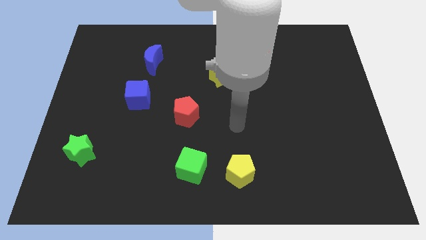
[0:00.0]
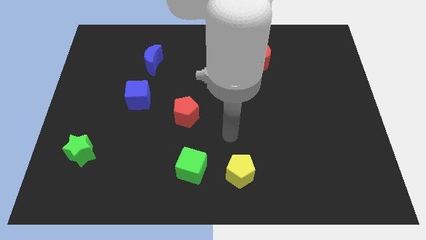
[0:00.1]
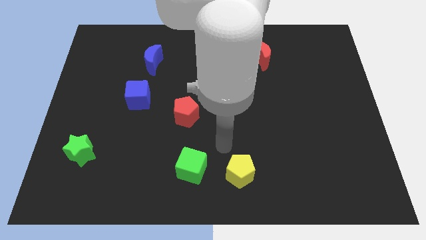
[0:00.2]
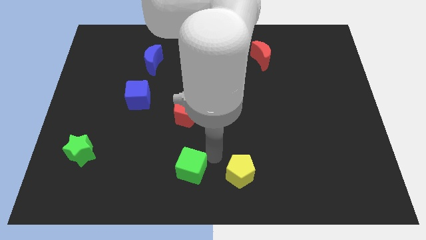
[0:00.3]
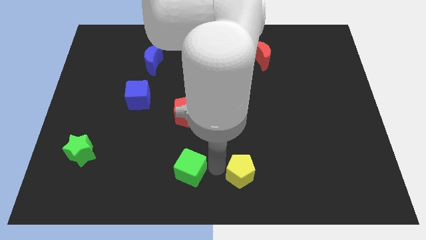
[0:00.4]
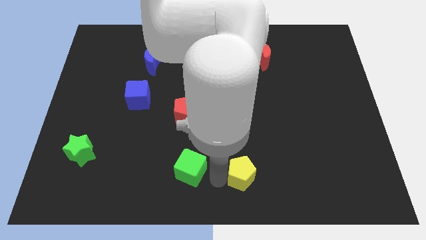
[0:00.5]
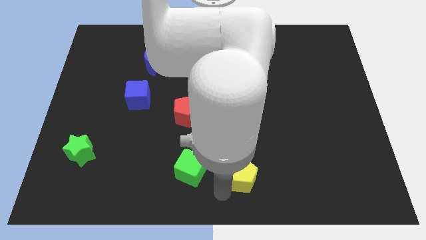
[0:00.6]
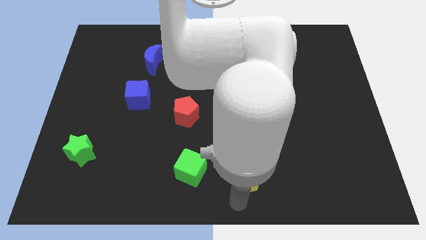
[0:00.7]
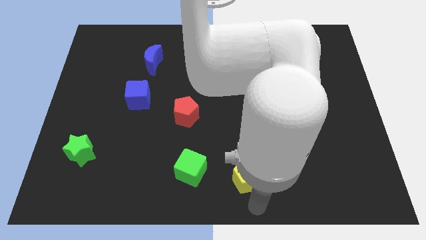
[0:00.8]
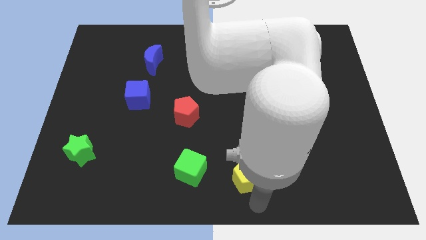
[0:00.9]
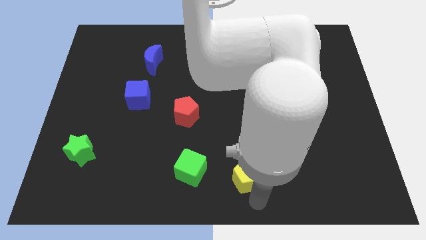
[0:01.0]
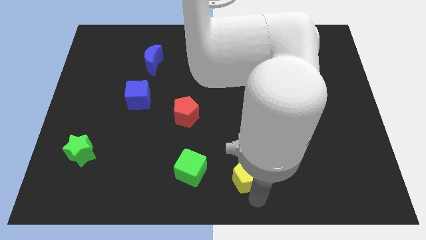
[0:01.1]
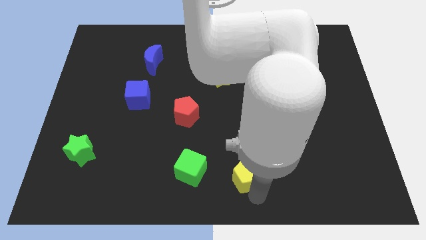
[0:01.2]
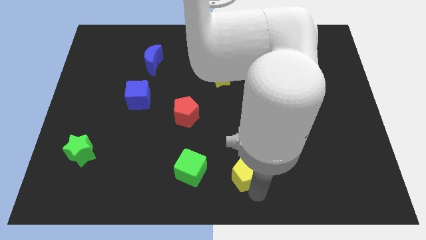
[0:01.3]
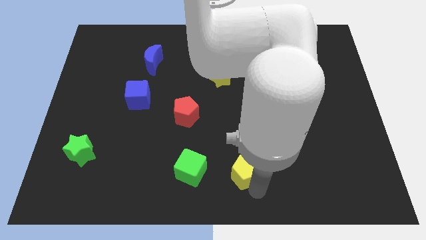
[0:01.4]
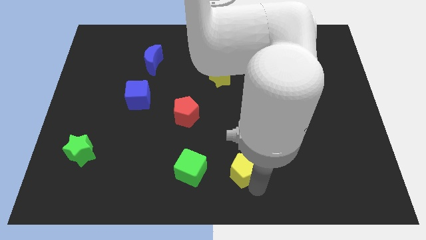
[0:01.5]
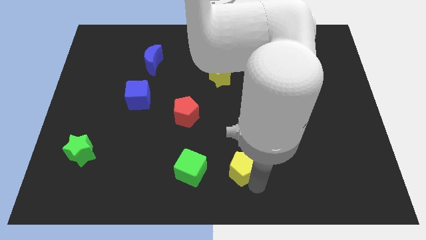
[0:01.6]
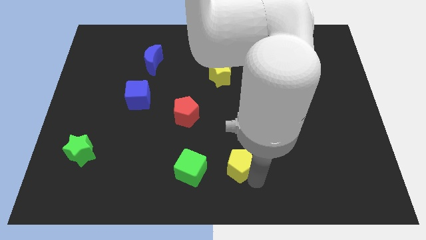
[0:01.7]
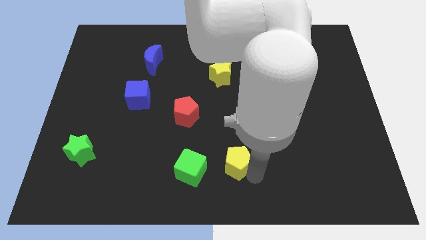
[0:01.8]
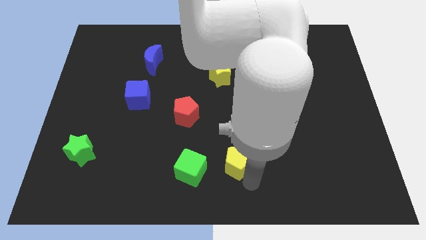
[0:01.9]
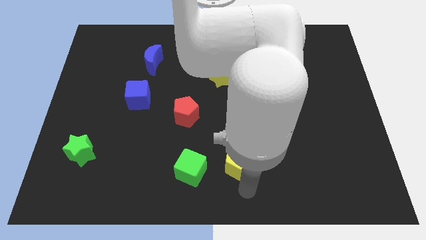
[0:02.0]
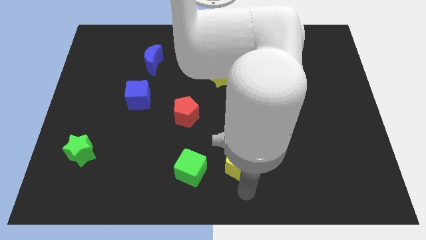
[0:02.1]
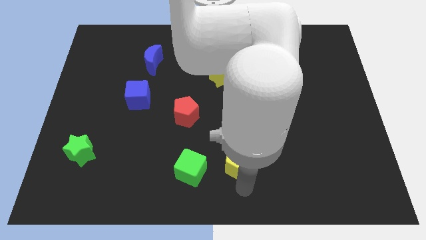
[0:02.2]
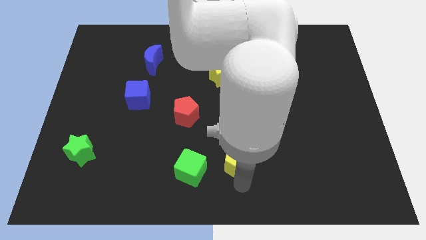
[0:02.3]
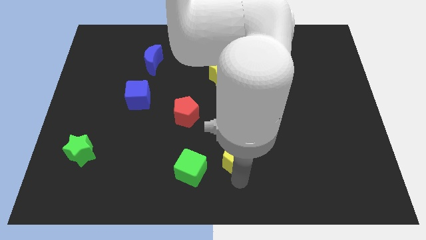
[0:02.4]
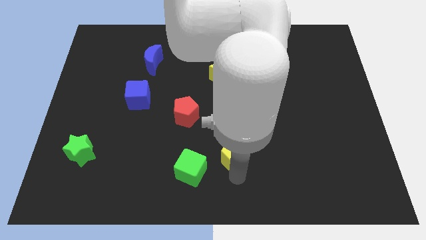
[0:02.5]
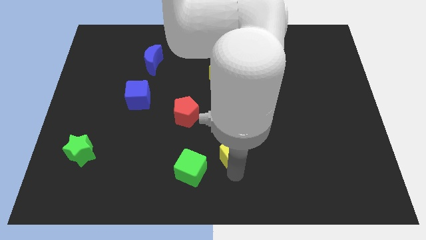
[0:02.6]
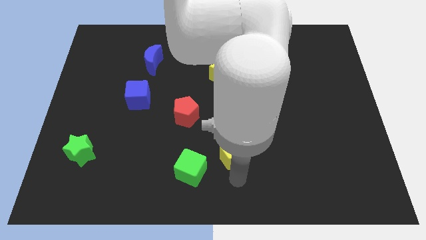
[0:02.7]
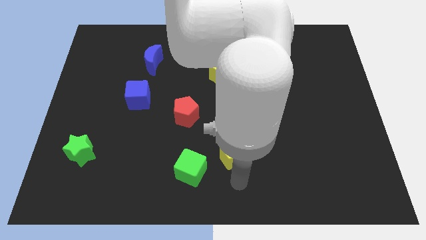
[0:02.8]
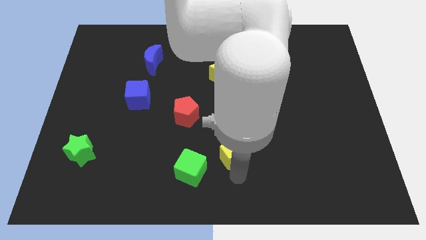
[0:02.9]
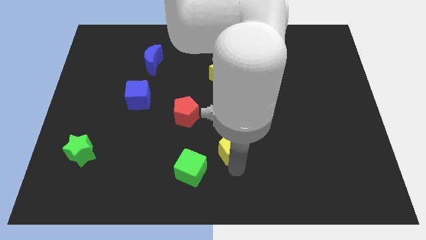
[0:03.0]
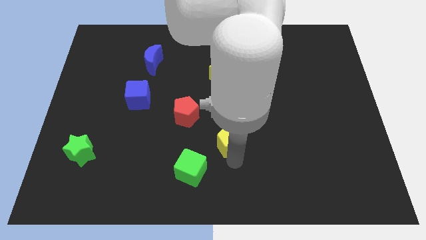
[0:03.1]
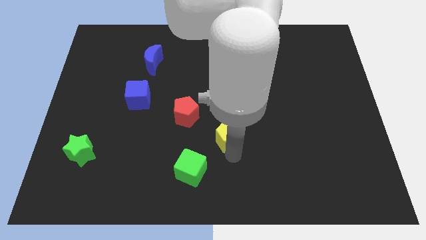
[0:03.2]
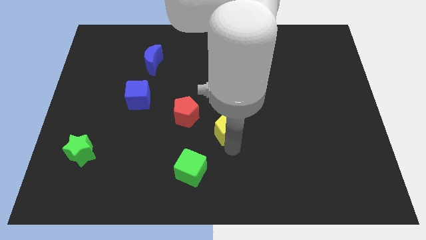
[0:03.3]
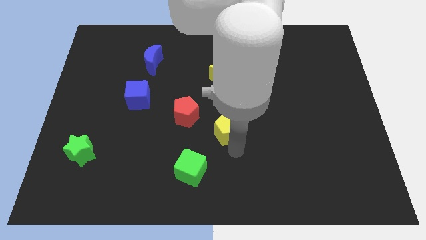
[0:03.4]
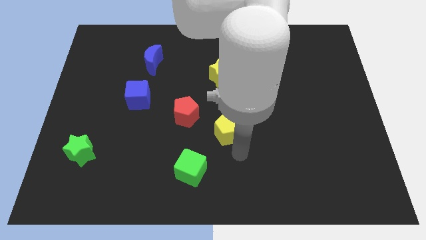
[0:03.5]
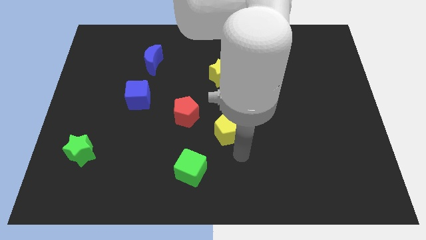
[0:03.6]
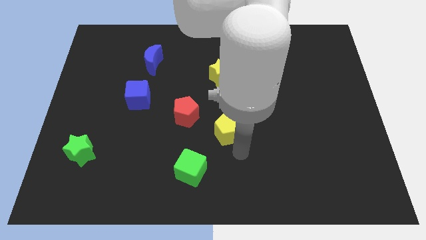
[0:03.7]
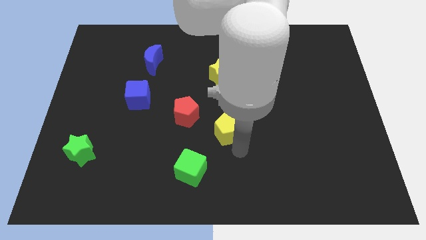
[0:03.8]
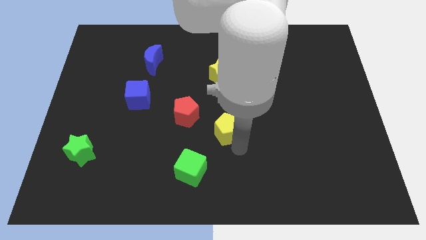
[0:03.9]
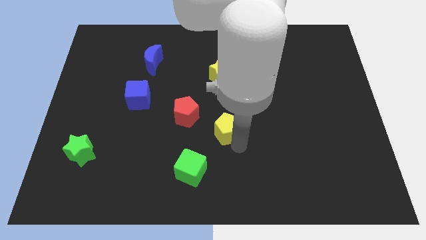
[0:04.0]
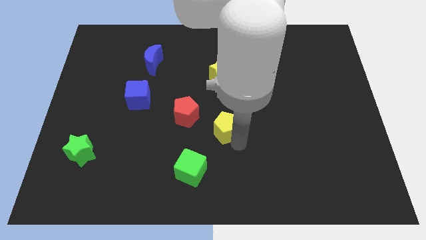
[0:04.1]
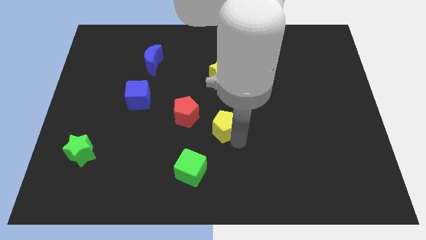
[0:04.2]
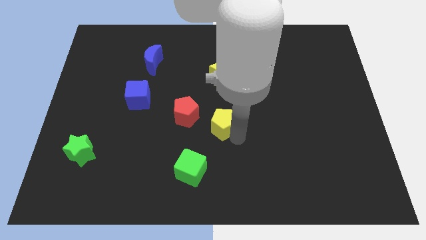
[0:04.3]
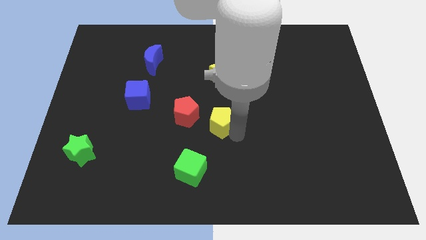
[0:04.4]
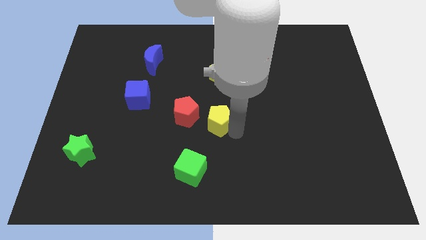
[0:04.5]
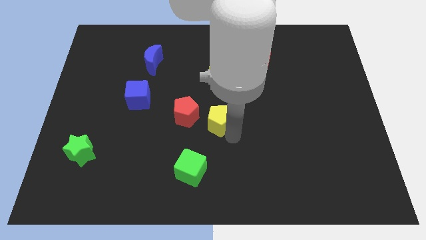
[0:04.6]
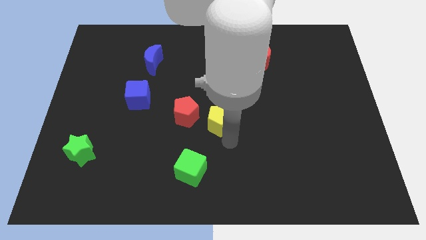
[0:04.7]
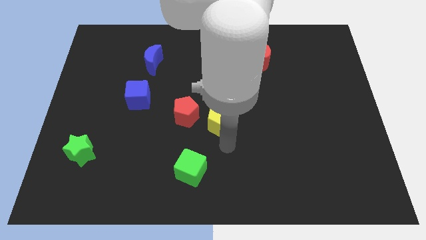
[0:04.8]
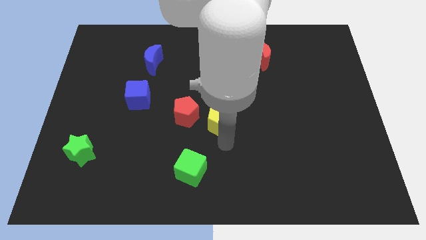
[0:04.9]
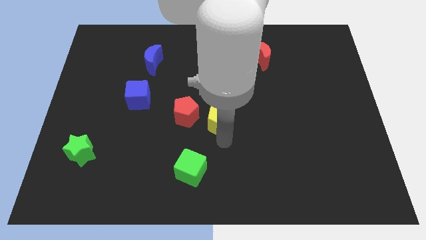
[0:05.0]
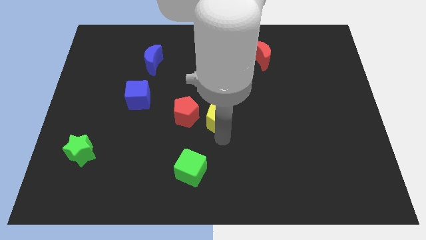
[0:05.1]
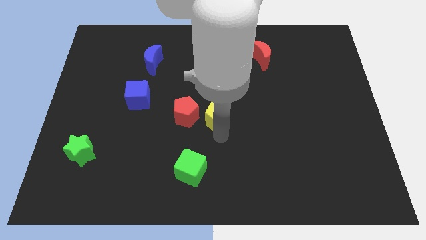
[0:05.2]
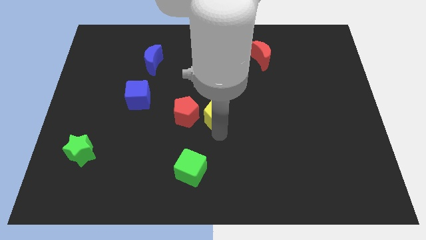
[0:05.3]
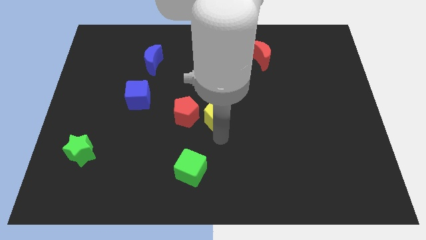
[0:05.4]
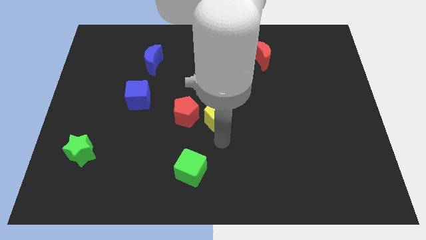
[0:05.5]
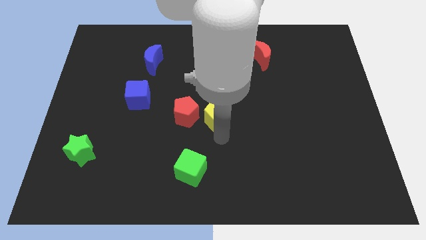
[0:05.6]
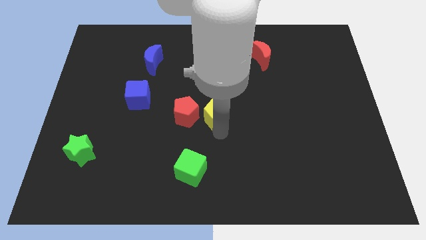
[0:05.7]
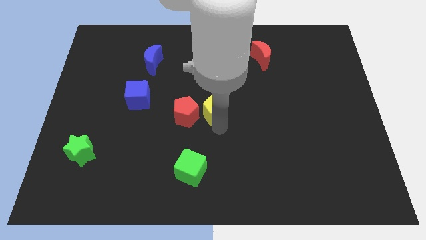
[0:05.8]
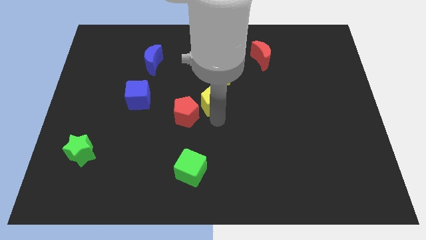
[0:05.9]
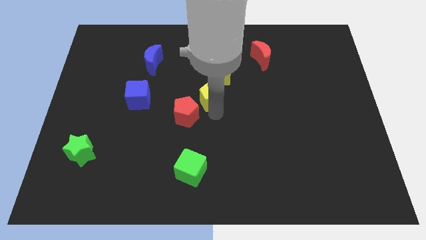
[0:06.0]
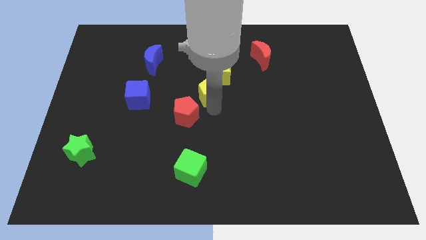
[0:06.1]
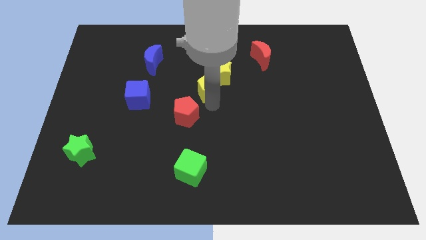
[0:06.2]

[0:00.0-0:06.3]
move the yellow pentagon close to the yellow star

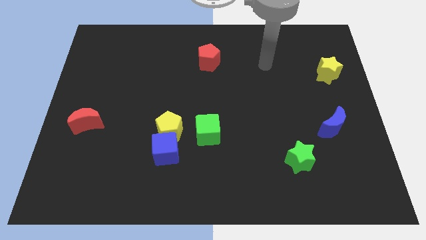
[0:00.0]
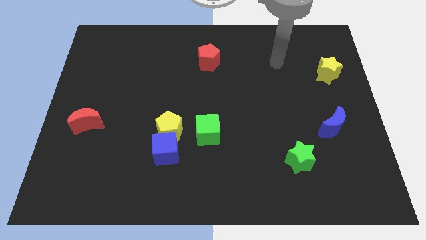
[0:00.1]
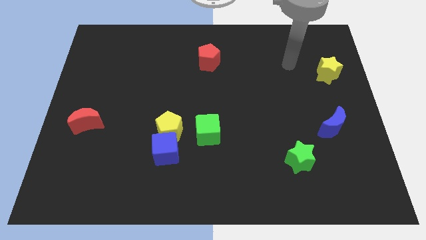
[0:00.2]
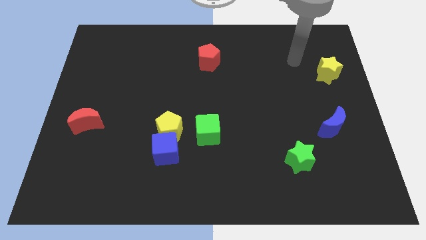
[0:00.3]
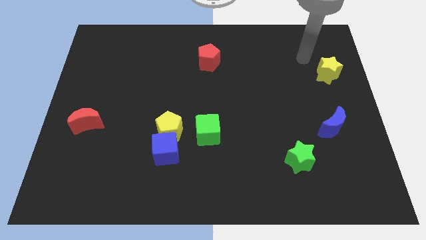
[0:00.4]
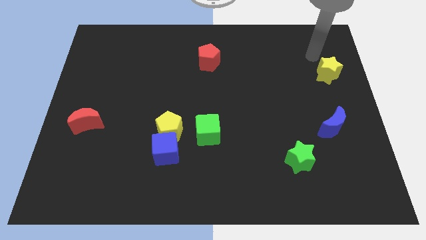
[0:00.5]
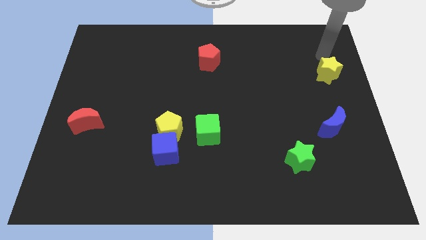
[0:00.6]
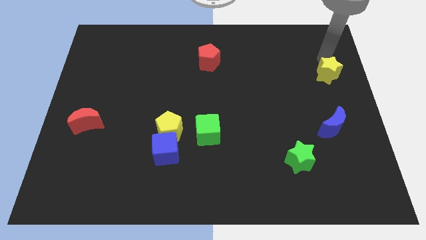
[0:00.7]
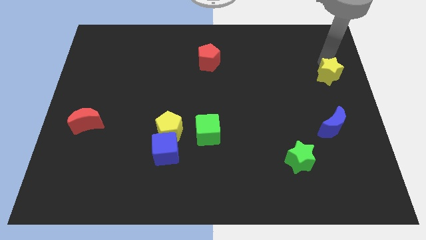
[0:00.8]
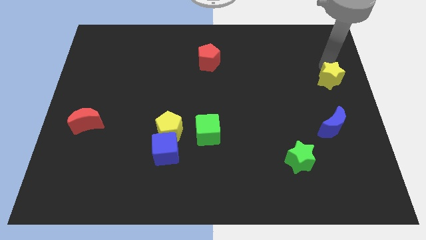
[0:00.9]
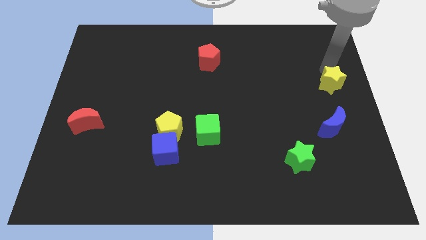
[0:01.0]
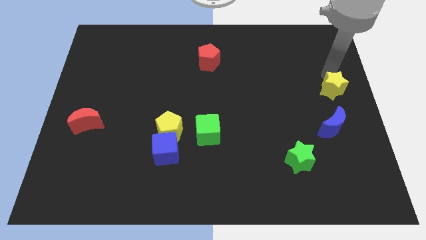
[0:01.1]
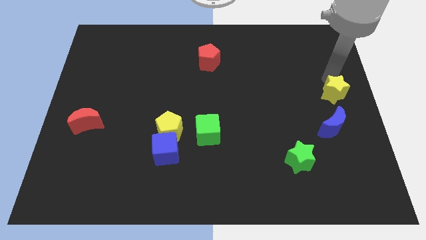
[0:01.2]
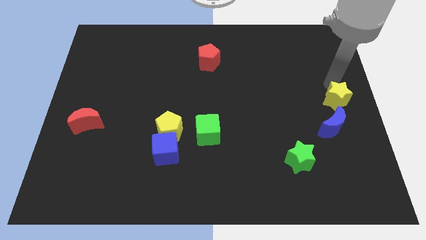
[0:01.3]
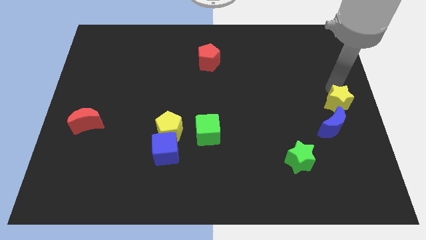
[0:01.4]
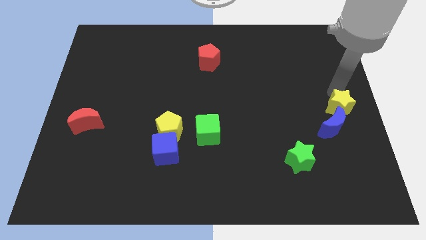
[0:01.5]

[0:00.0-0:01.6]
push the yellow star close to the blue moon
